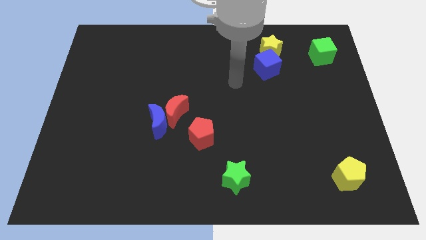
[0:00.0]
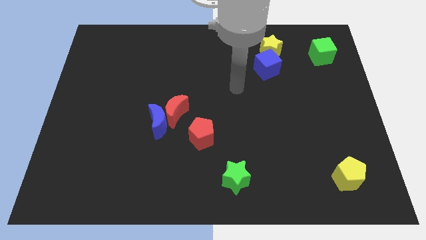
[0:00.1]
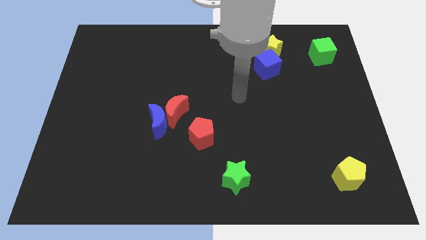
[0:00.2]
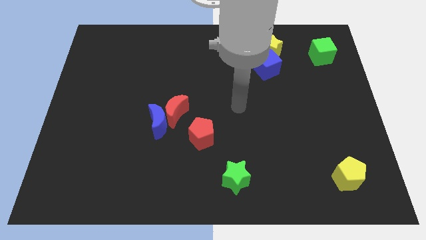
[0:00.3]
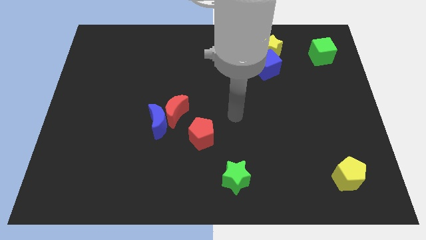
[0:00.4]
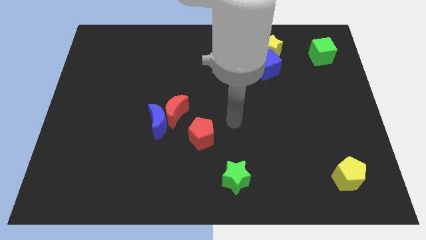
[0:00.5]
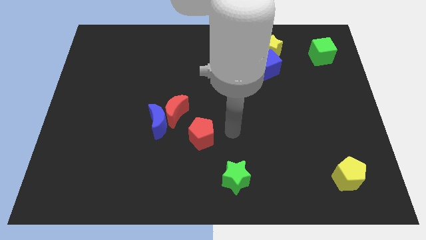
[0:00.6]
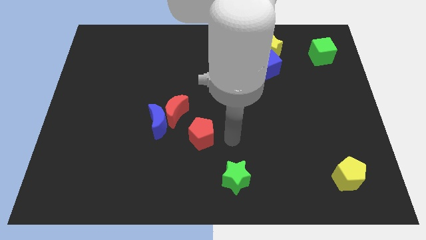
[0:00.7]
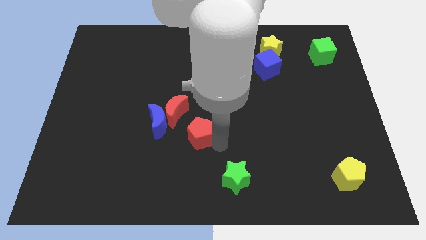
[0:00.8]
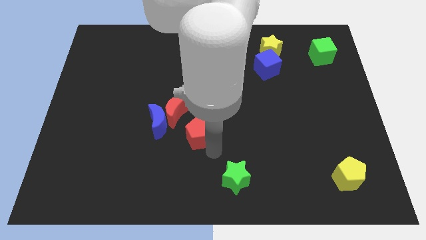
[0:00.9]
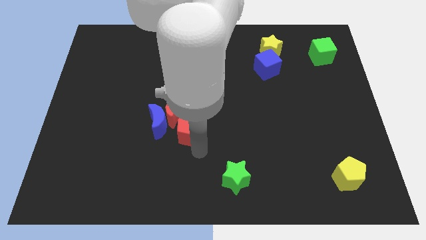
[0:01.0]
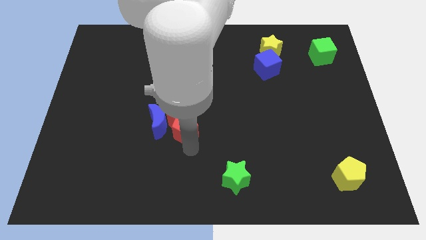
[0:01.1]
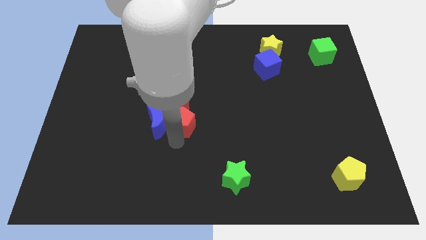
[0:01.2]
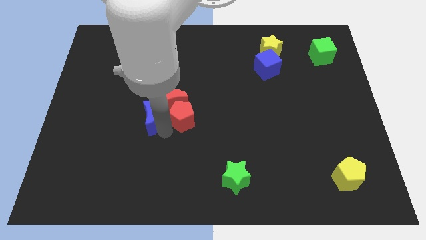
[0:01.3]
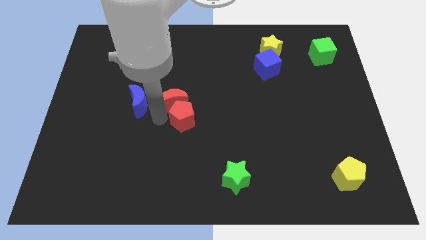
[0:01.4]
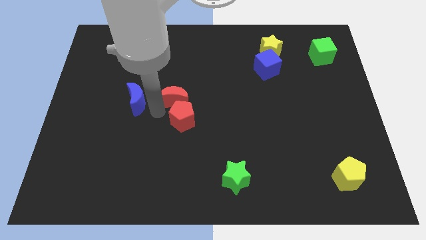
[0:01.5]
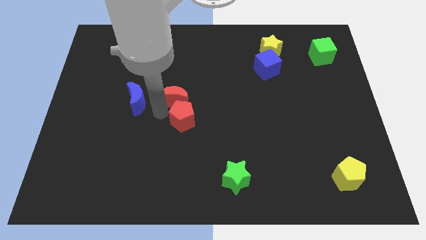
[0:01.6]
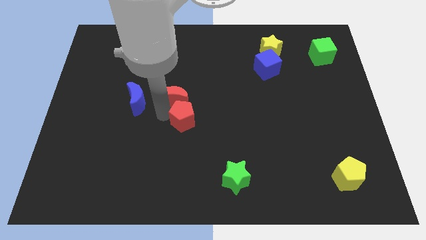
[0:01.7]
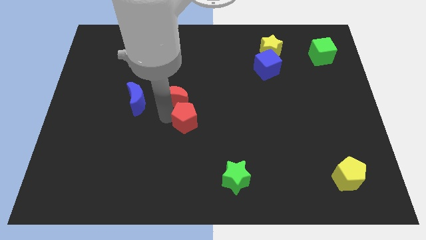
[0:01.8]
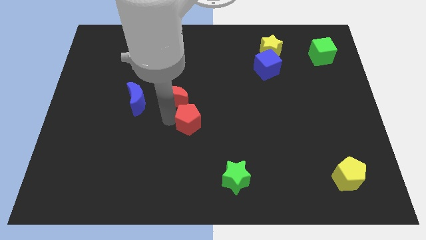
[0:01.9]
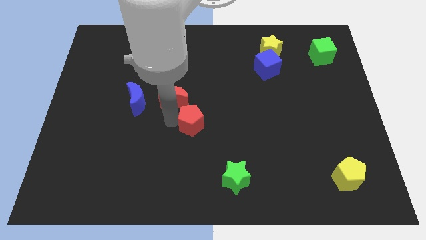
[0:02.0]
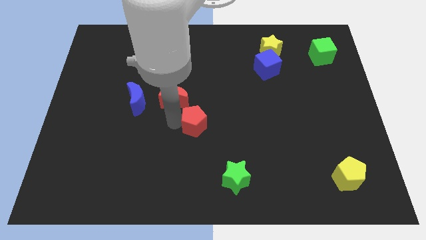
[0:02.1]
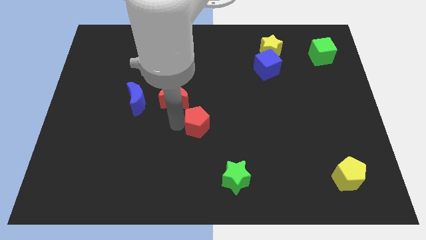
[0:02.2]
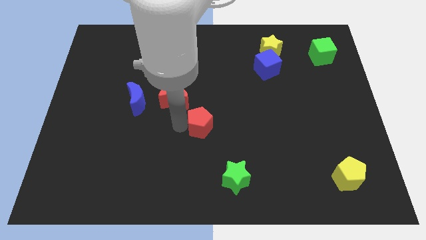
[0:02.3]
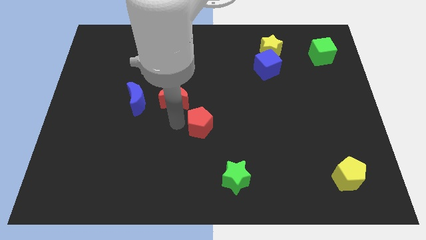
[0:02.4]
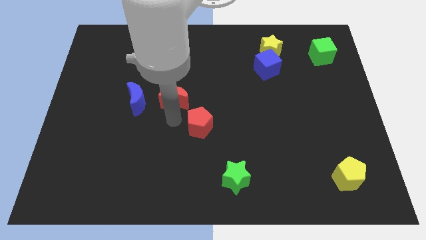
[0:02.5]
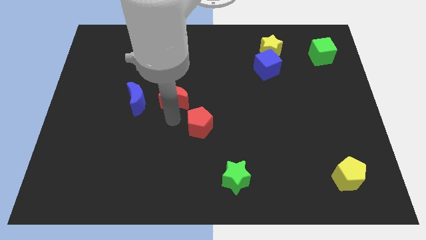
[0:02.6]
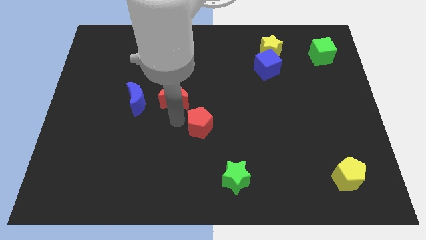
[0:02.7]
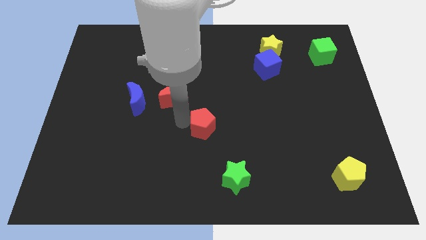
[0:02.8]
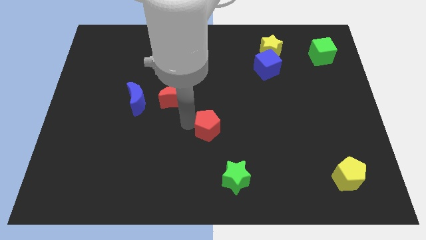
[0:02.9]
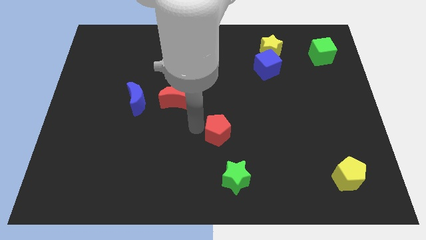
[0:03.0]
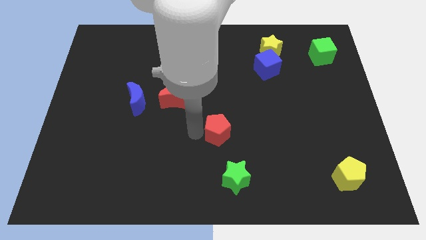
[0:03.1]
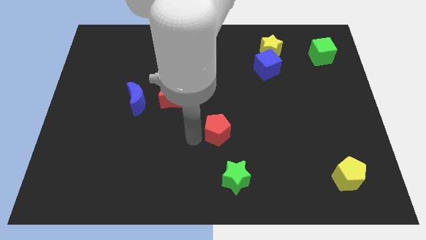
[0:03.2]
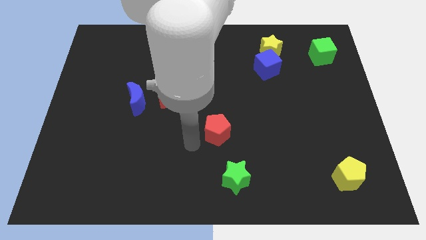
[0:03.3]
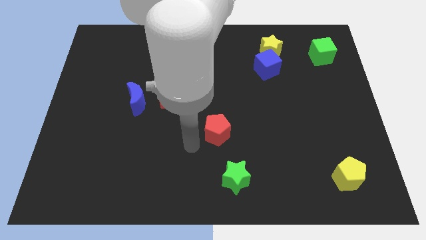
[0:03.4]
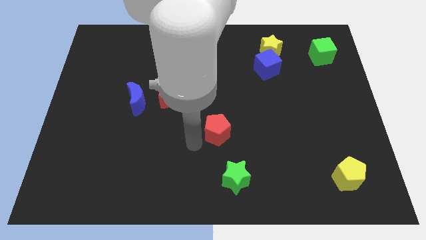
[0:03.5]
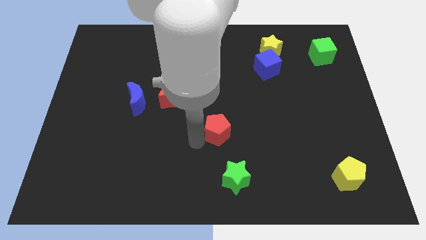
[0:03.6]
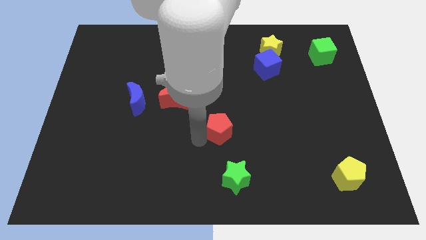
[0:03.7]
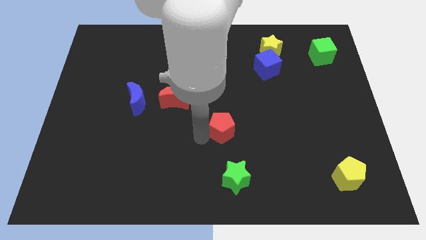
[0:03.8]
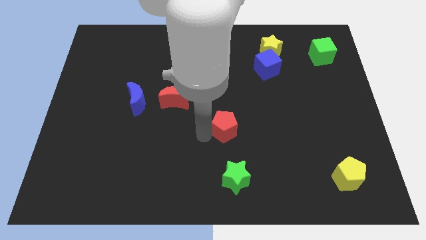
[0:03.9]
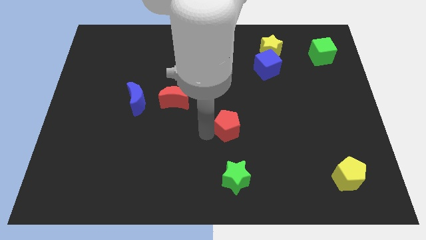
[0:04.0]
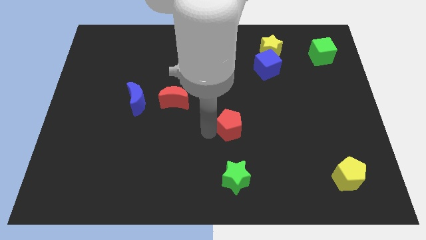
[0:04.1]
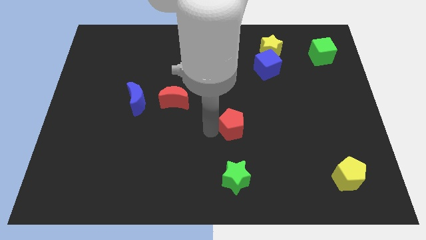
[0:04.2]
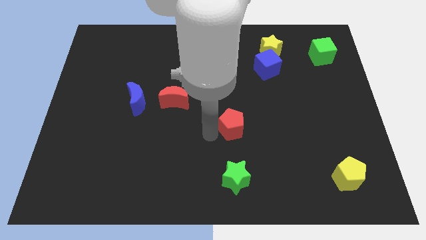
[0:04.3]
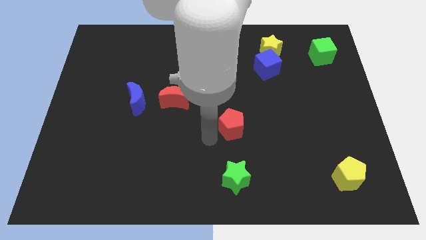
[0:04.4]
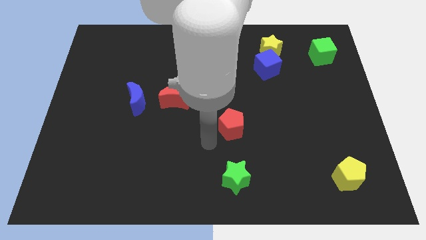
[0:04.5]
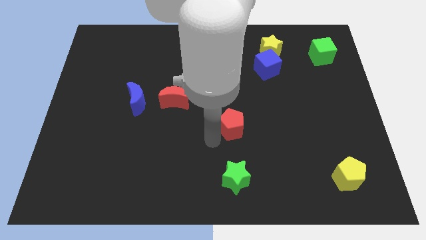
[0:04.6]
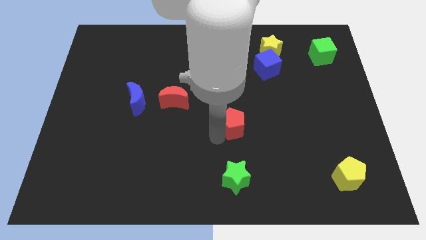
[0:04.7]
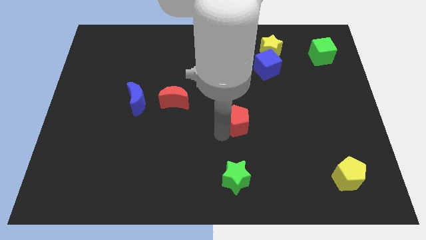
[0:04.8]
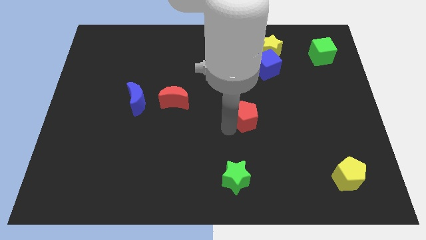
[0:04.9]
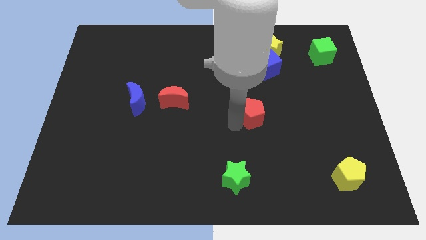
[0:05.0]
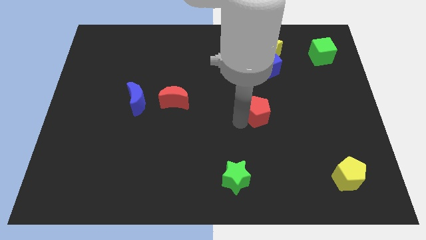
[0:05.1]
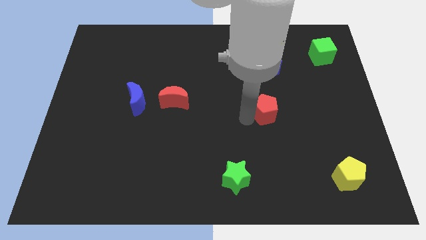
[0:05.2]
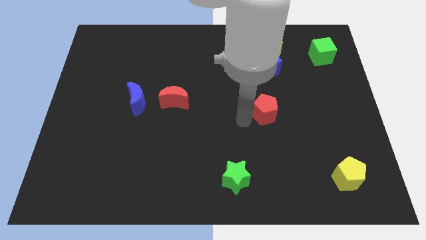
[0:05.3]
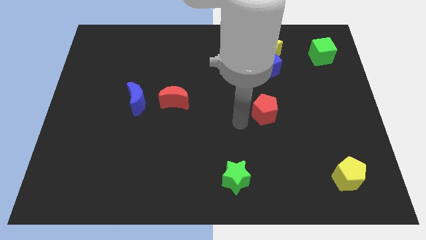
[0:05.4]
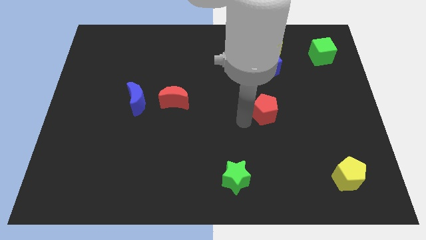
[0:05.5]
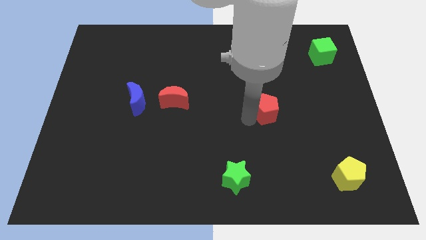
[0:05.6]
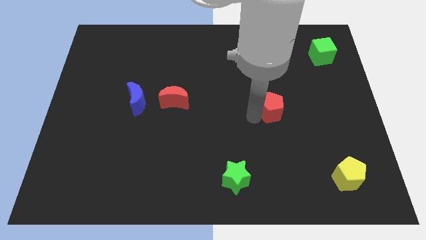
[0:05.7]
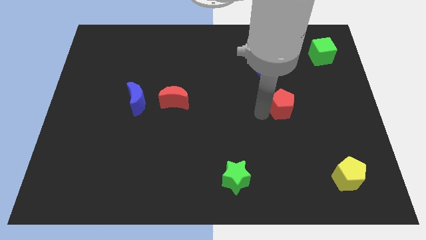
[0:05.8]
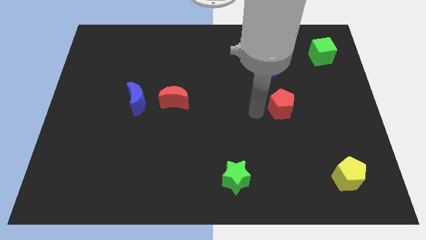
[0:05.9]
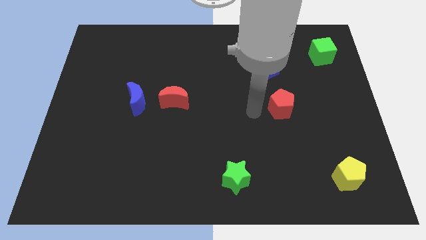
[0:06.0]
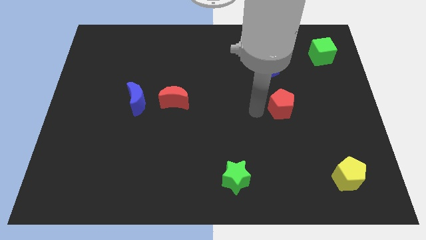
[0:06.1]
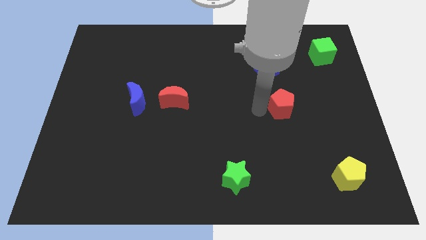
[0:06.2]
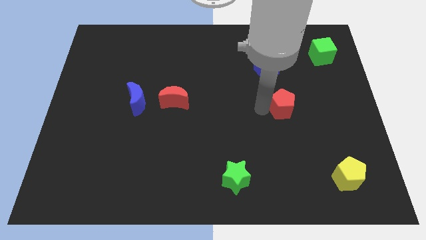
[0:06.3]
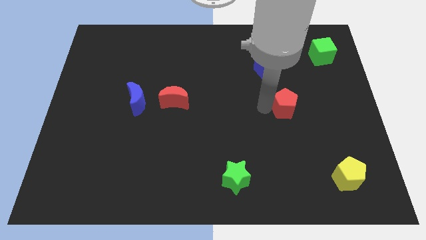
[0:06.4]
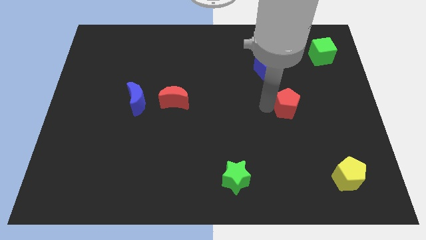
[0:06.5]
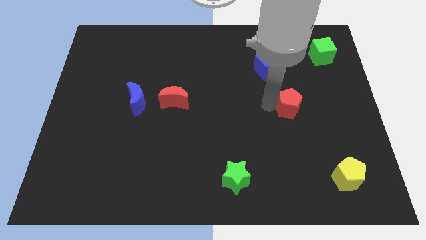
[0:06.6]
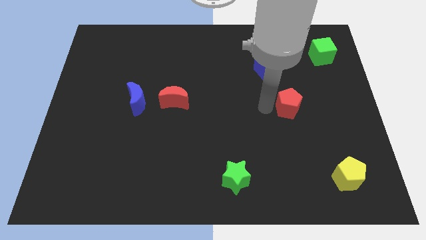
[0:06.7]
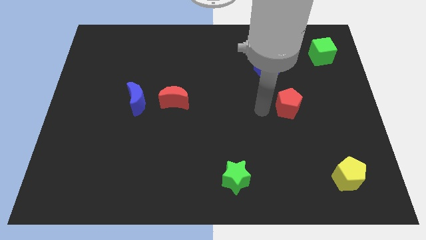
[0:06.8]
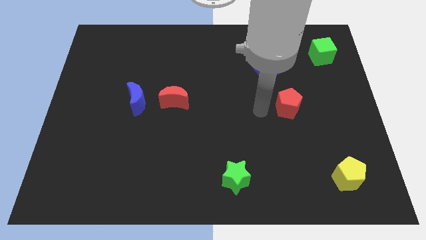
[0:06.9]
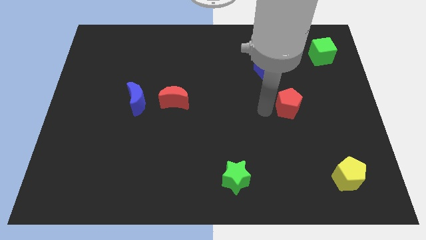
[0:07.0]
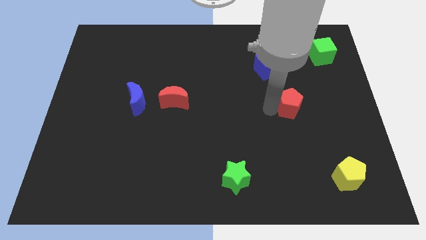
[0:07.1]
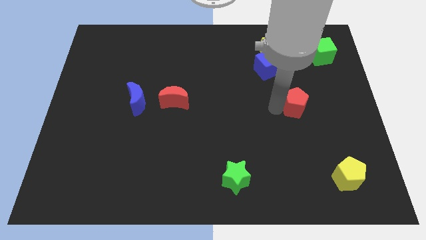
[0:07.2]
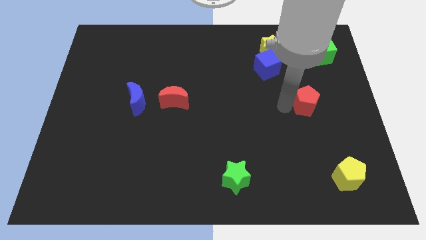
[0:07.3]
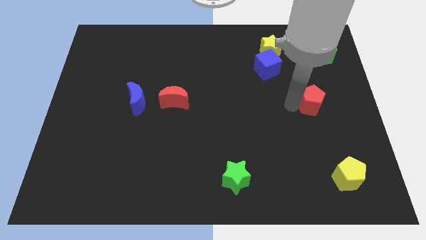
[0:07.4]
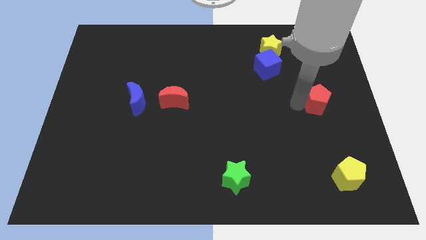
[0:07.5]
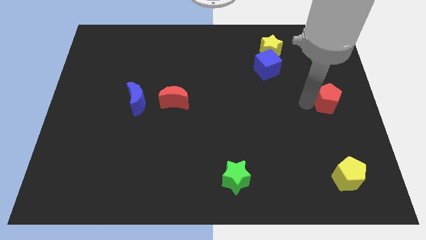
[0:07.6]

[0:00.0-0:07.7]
slide the red pentagon to the right side of the board
